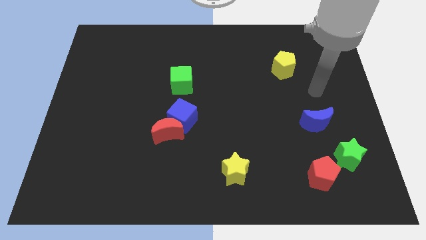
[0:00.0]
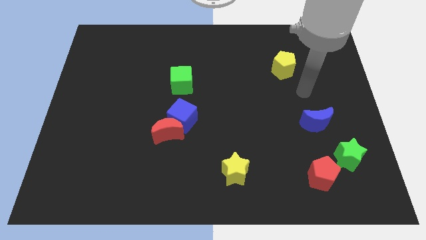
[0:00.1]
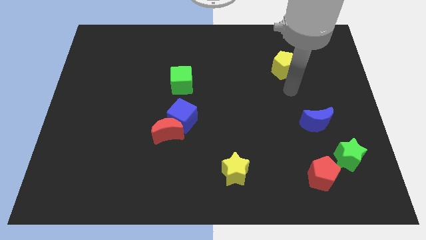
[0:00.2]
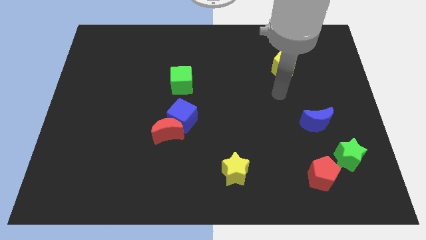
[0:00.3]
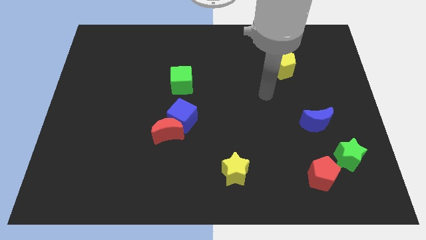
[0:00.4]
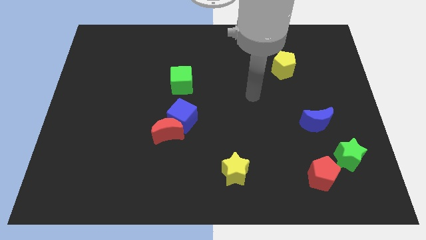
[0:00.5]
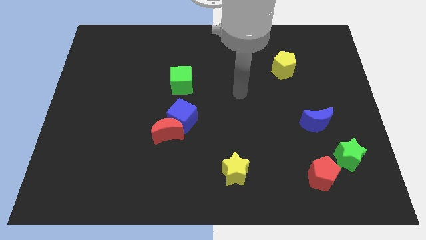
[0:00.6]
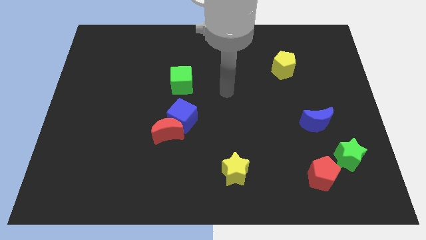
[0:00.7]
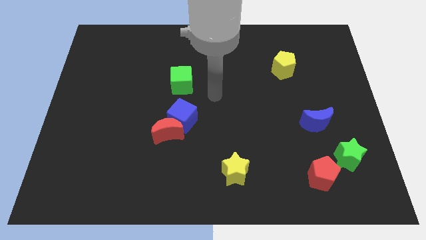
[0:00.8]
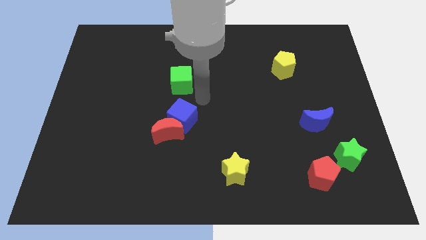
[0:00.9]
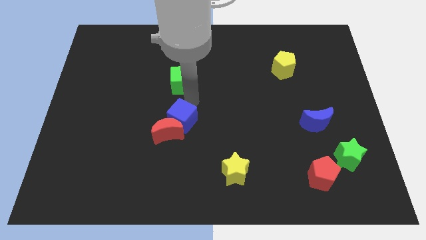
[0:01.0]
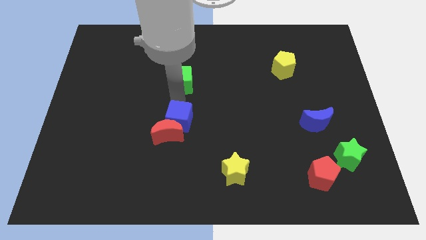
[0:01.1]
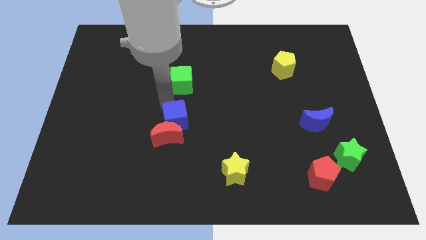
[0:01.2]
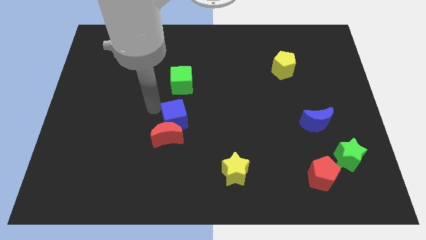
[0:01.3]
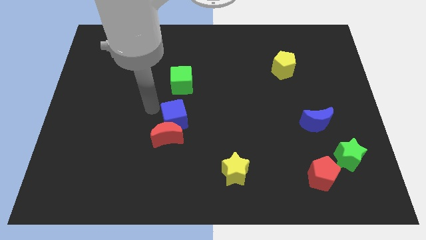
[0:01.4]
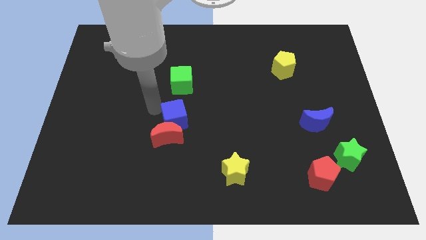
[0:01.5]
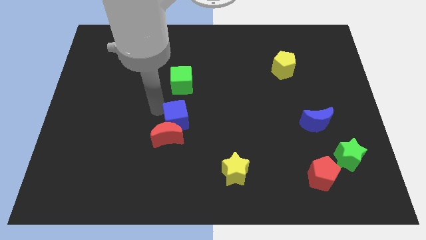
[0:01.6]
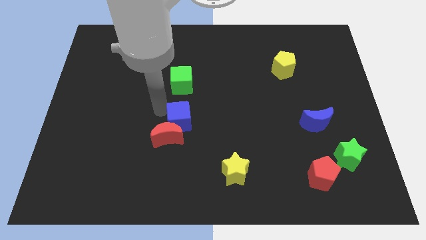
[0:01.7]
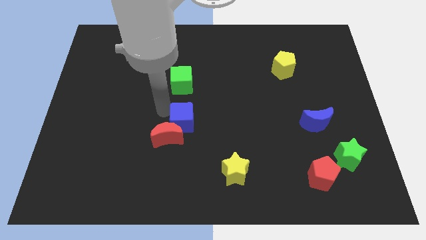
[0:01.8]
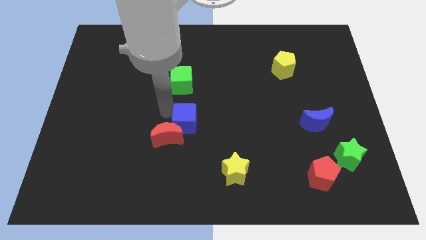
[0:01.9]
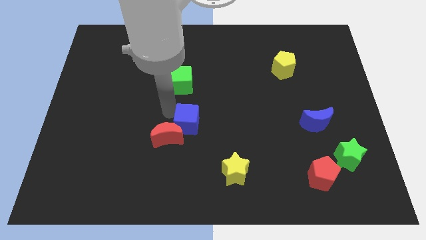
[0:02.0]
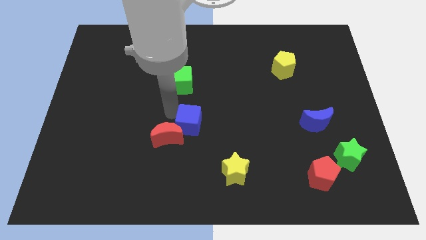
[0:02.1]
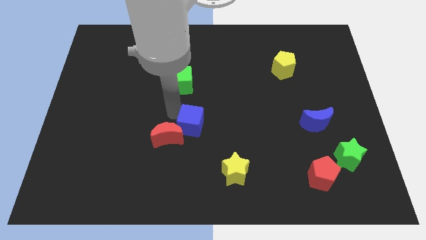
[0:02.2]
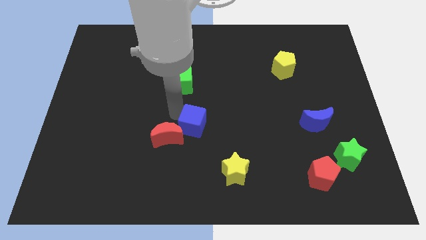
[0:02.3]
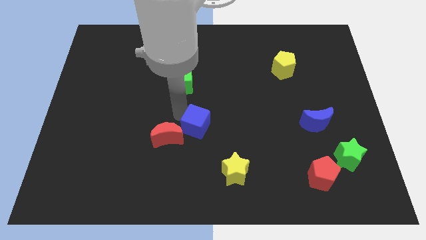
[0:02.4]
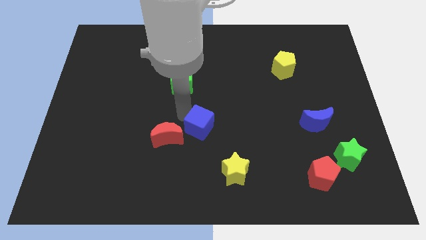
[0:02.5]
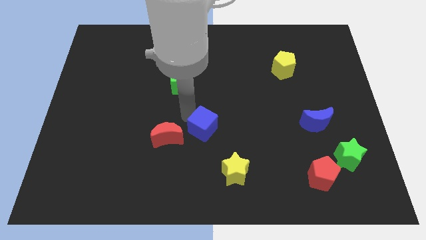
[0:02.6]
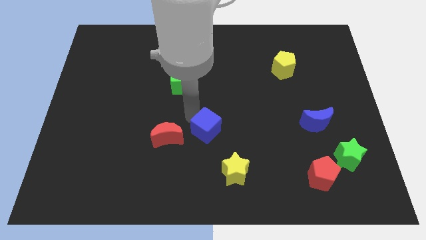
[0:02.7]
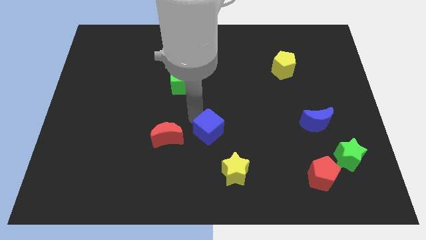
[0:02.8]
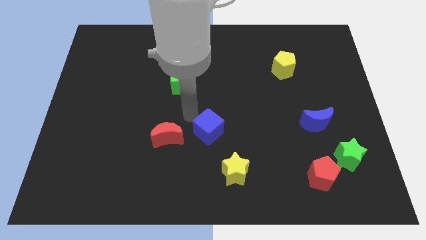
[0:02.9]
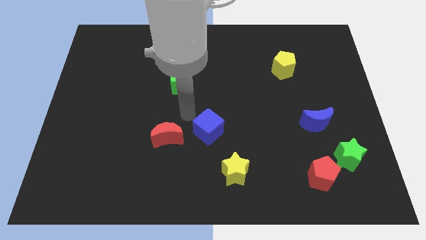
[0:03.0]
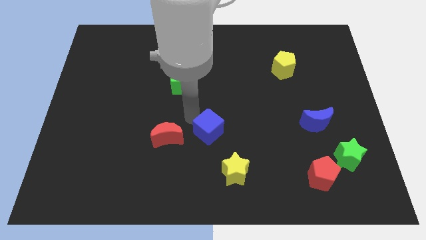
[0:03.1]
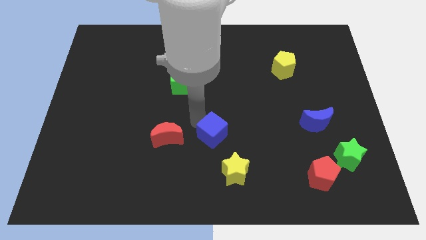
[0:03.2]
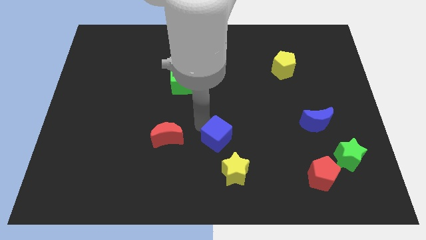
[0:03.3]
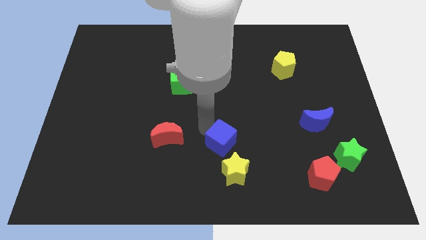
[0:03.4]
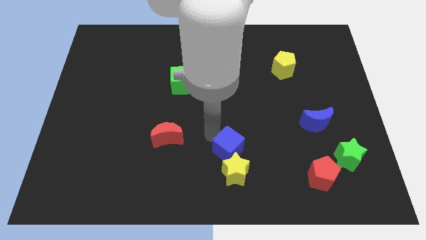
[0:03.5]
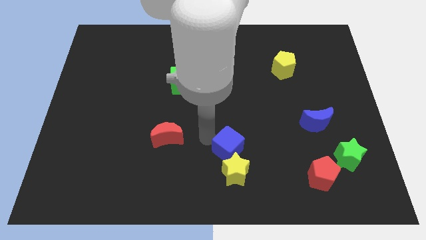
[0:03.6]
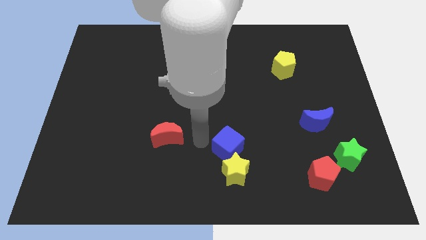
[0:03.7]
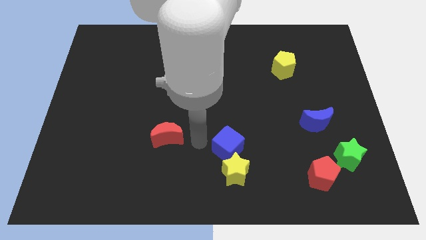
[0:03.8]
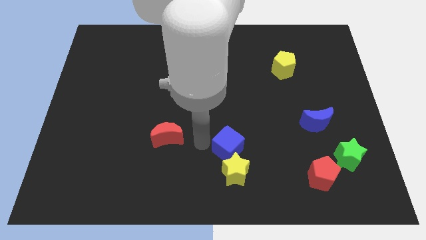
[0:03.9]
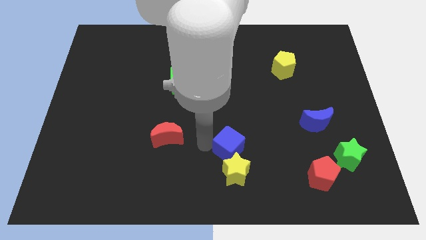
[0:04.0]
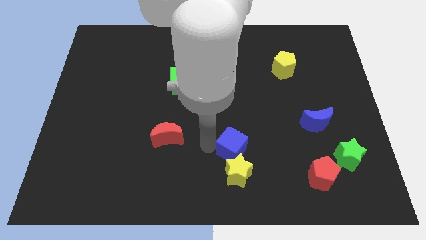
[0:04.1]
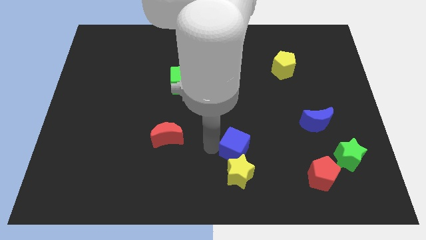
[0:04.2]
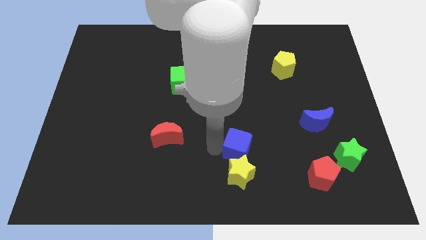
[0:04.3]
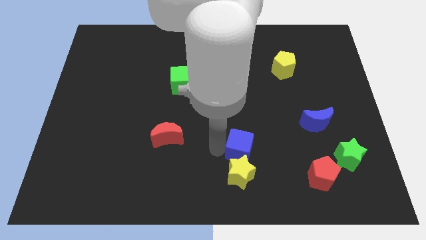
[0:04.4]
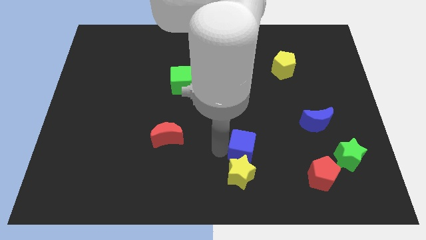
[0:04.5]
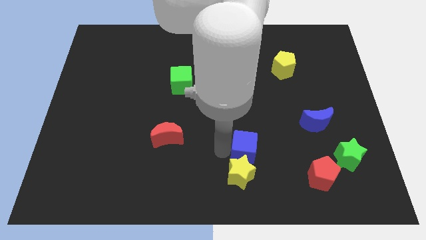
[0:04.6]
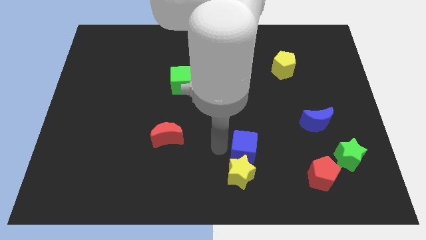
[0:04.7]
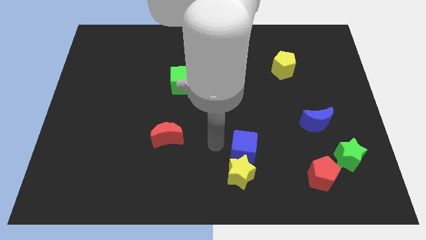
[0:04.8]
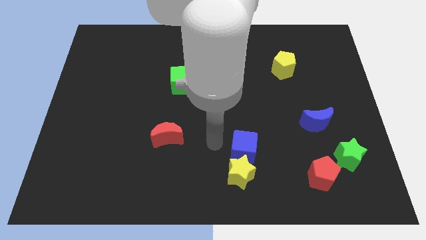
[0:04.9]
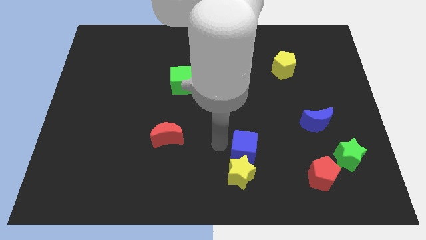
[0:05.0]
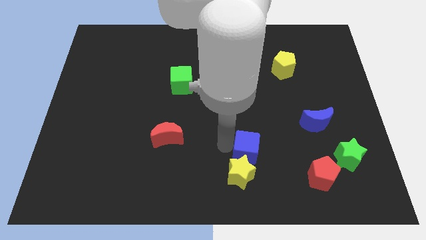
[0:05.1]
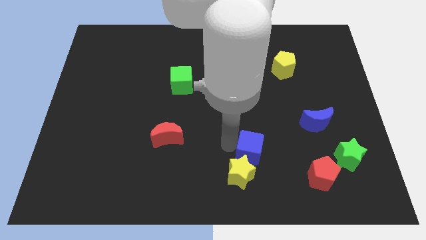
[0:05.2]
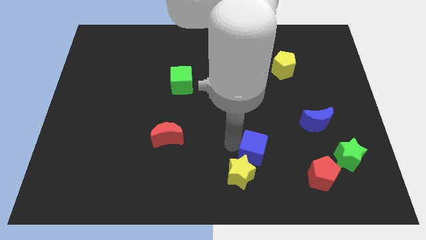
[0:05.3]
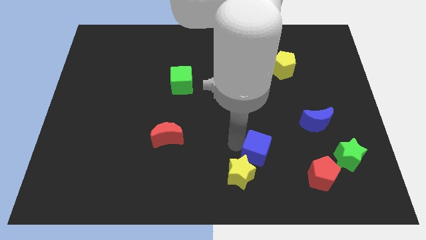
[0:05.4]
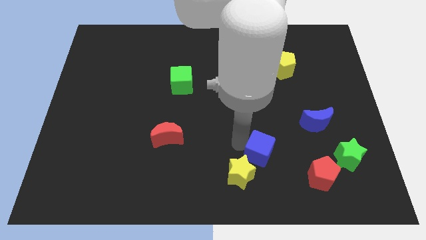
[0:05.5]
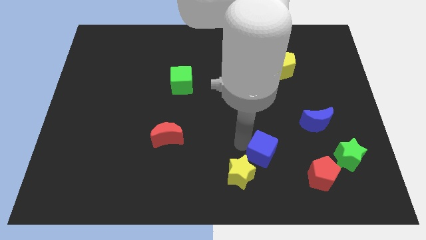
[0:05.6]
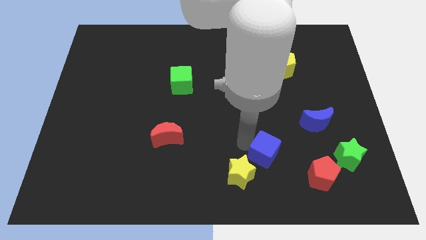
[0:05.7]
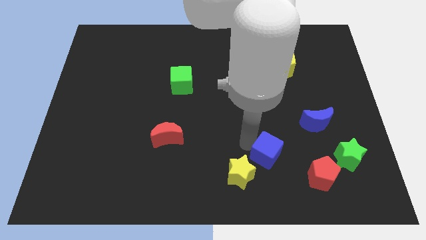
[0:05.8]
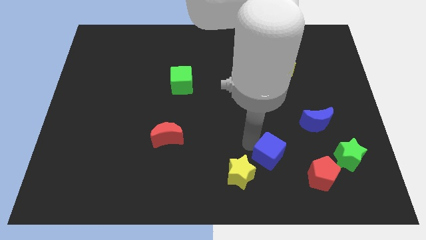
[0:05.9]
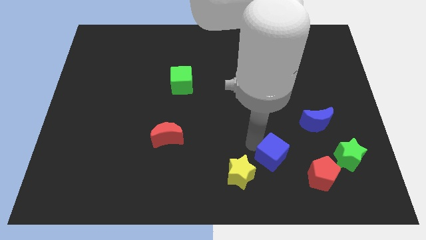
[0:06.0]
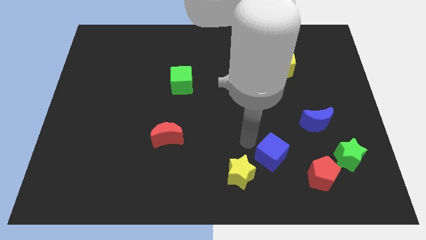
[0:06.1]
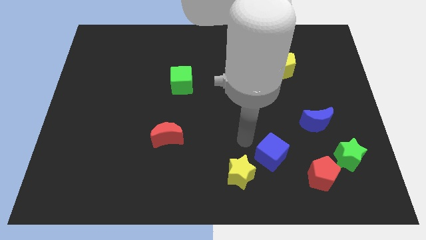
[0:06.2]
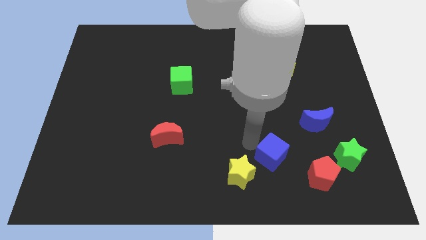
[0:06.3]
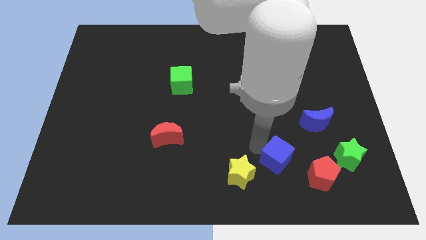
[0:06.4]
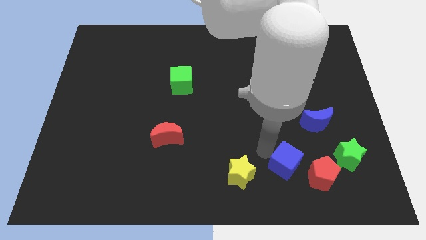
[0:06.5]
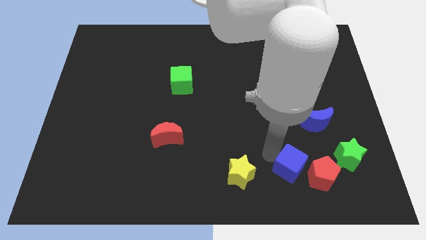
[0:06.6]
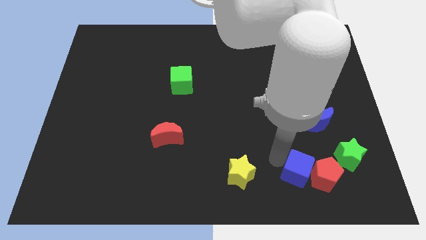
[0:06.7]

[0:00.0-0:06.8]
move the blue cube close to the red pentagon

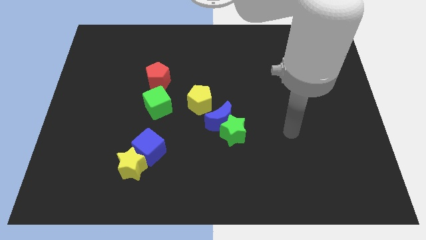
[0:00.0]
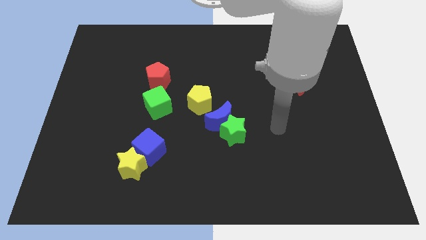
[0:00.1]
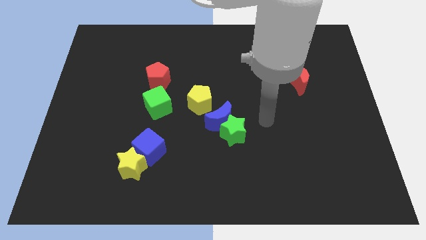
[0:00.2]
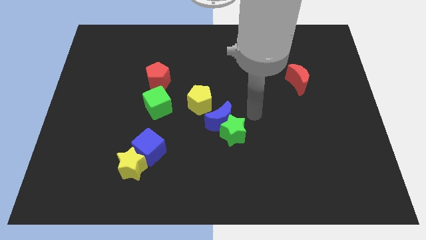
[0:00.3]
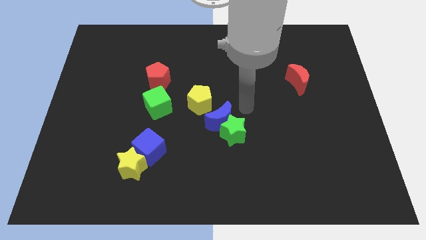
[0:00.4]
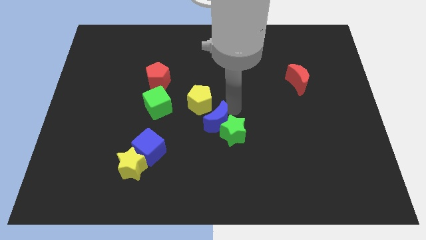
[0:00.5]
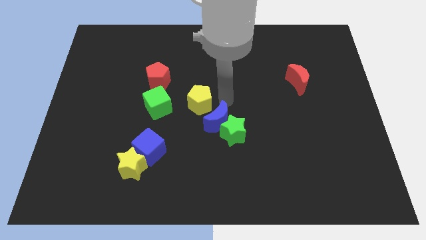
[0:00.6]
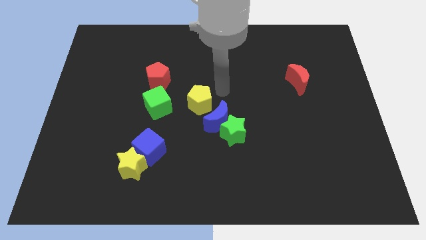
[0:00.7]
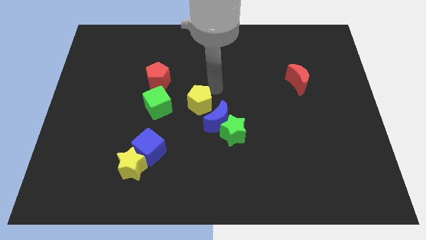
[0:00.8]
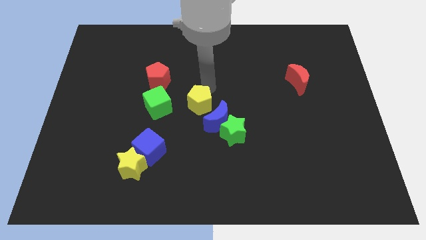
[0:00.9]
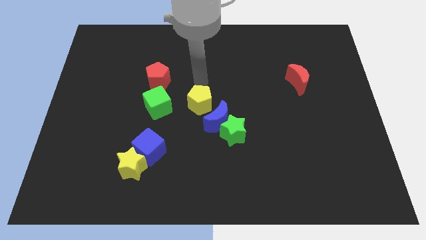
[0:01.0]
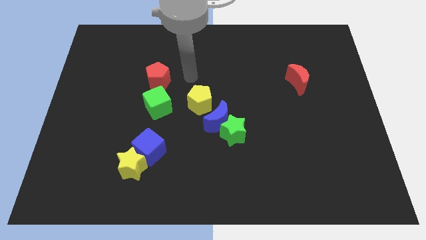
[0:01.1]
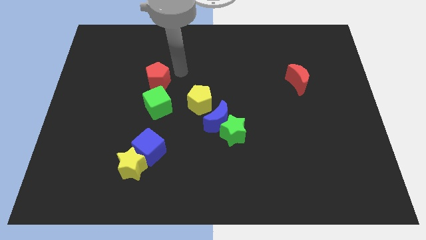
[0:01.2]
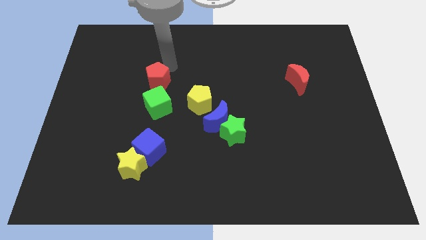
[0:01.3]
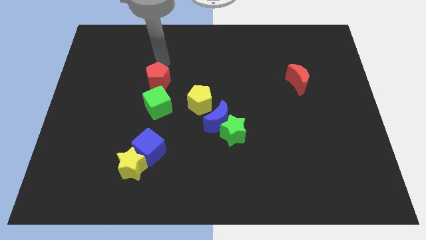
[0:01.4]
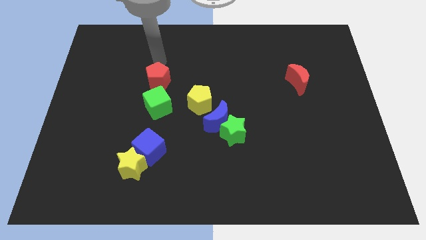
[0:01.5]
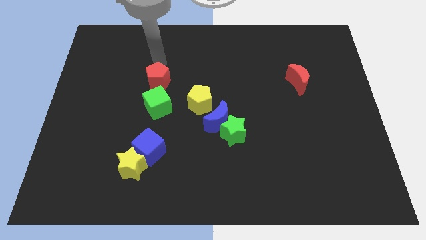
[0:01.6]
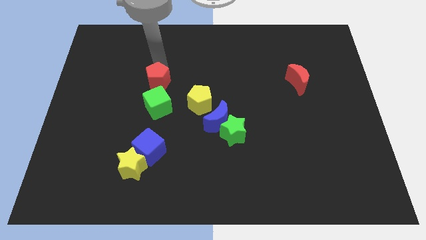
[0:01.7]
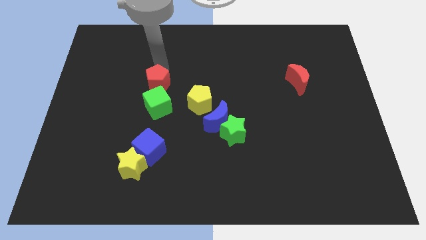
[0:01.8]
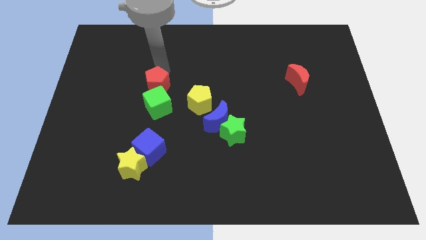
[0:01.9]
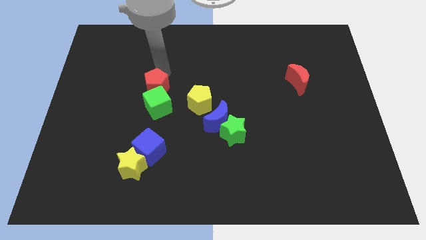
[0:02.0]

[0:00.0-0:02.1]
put the red pentagon next to the green cube
